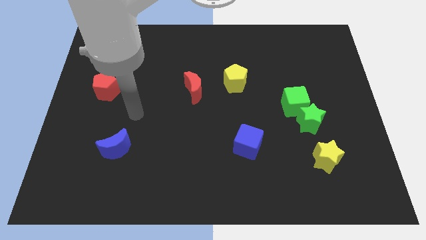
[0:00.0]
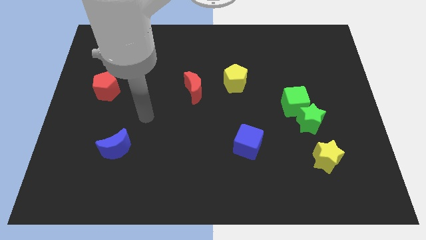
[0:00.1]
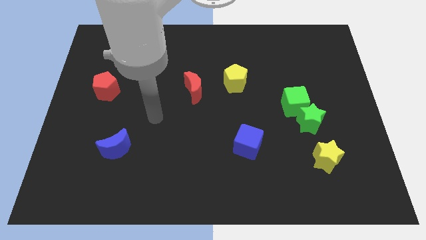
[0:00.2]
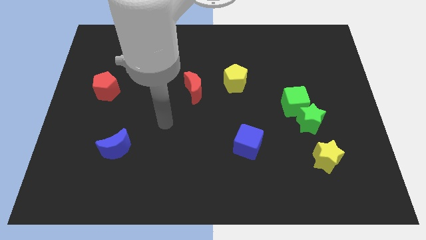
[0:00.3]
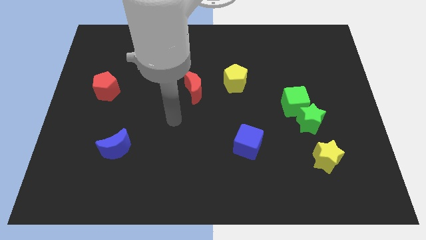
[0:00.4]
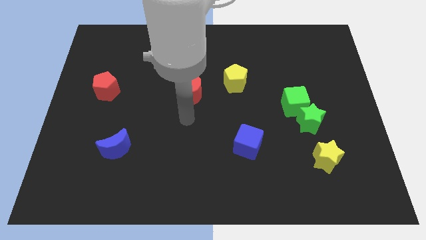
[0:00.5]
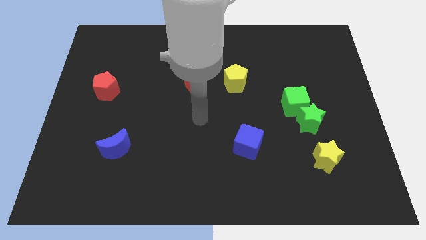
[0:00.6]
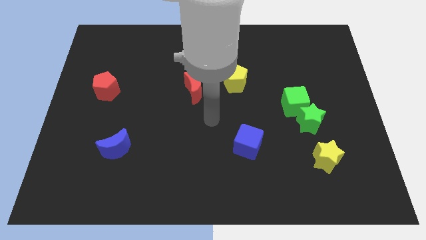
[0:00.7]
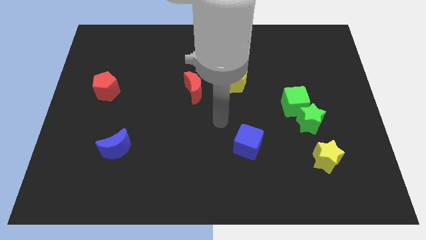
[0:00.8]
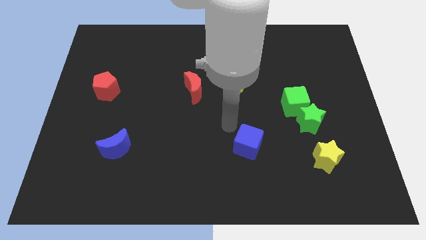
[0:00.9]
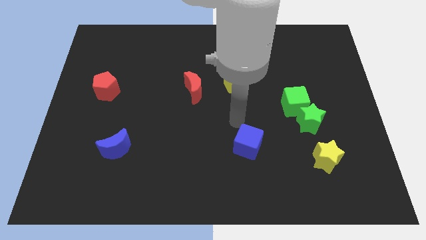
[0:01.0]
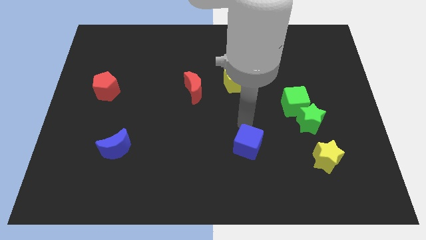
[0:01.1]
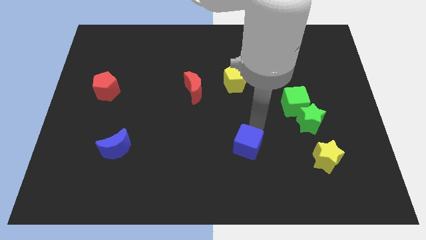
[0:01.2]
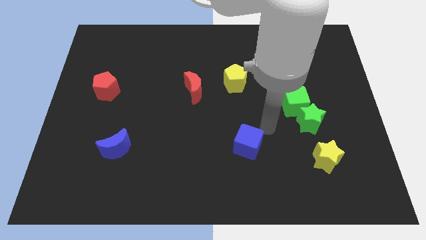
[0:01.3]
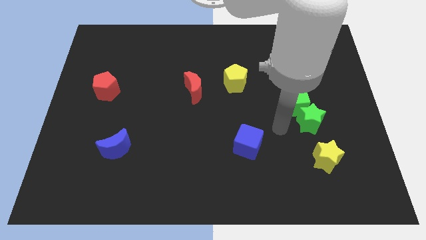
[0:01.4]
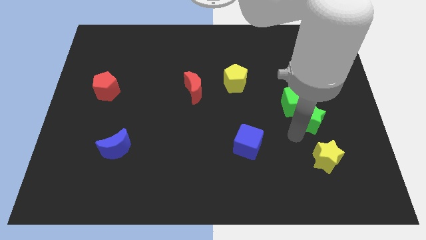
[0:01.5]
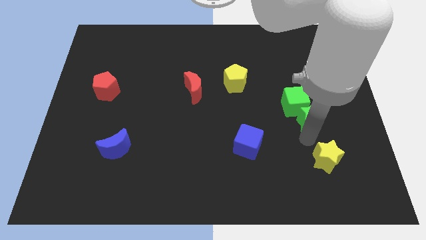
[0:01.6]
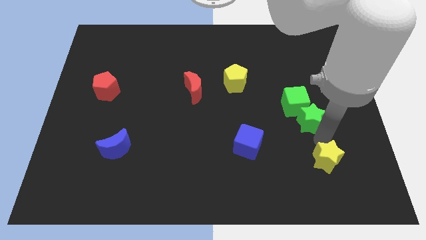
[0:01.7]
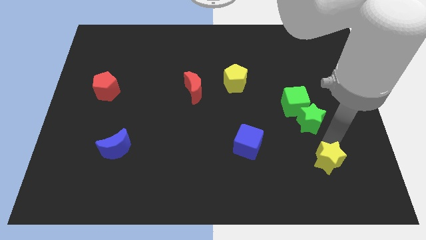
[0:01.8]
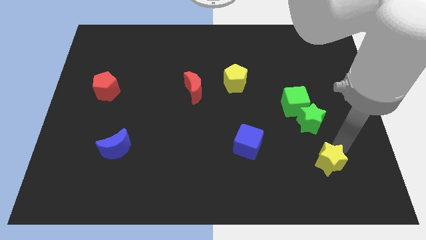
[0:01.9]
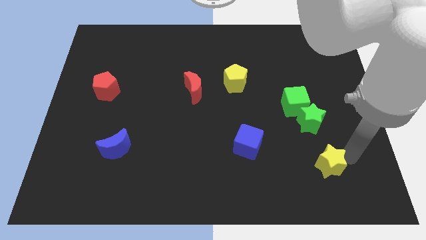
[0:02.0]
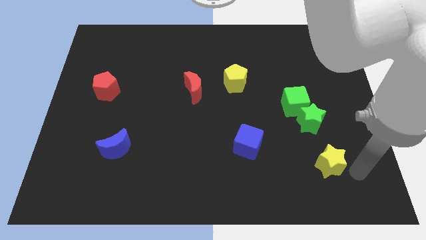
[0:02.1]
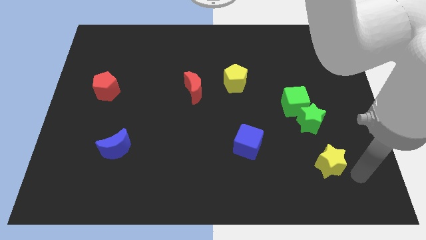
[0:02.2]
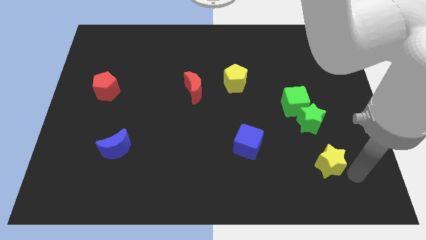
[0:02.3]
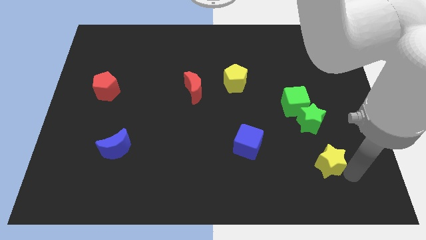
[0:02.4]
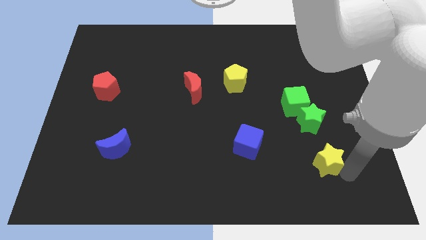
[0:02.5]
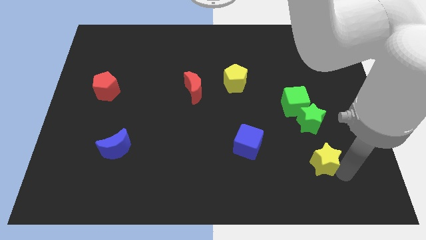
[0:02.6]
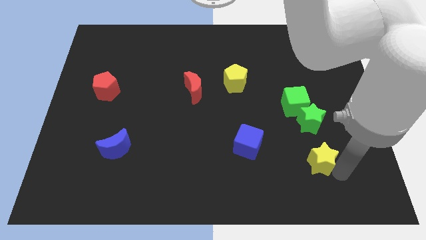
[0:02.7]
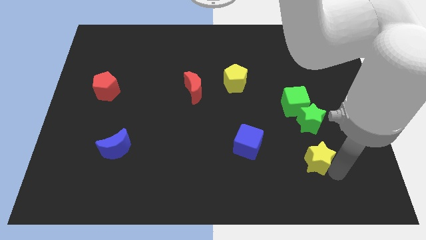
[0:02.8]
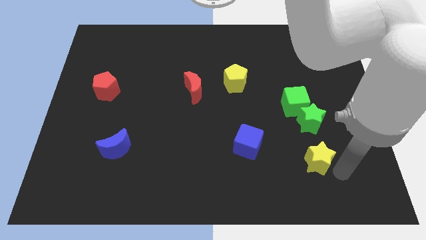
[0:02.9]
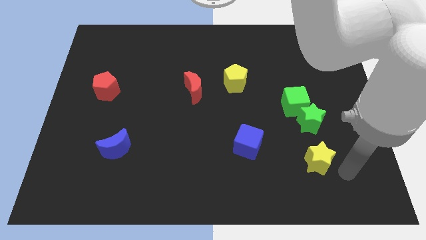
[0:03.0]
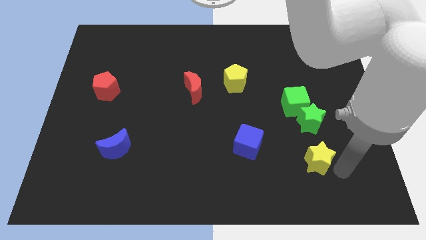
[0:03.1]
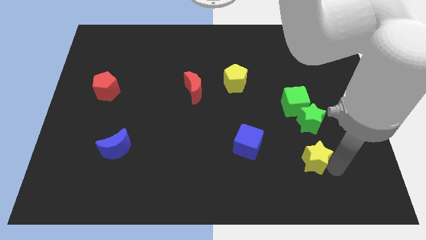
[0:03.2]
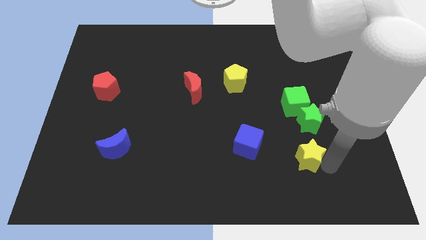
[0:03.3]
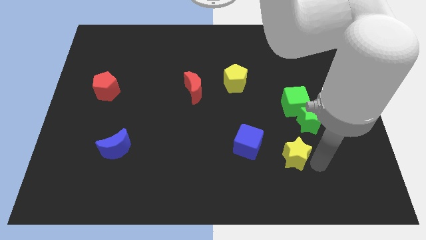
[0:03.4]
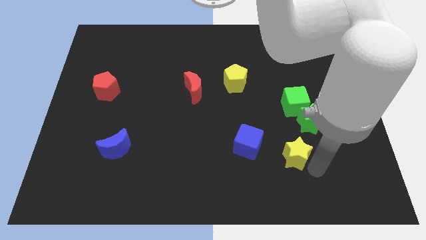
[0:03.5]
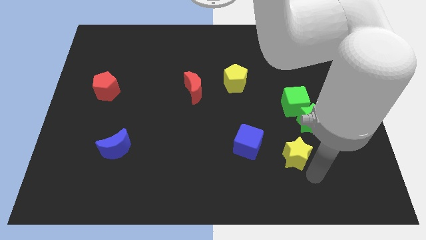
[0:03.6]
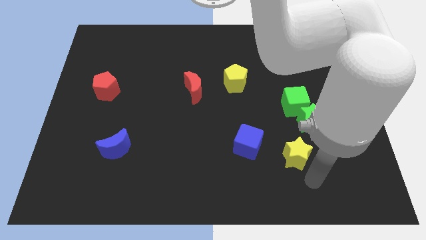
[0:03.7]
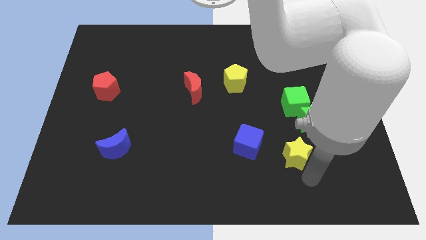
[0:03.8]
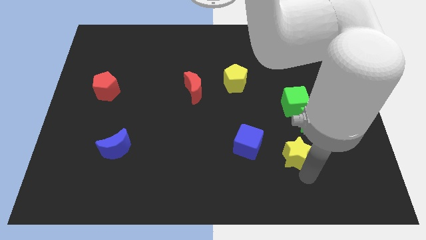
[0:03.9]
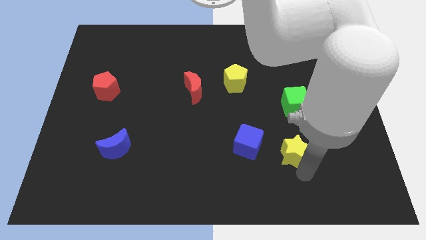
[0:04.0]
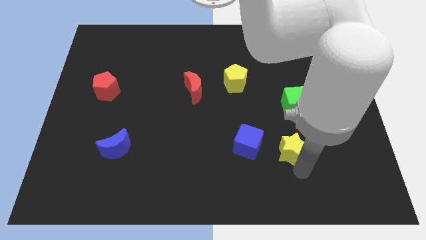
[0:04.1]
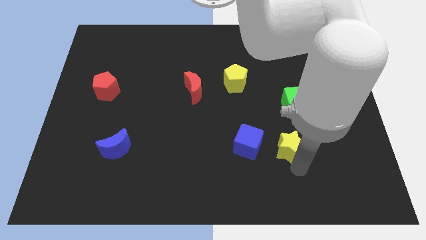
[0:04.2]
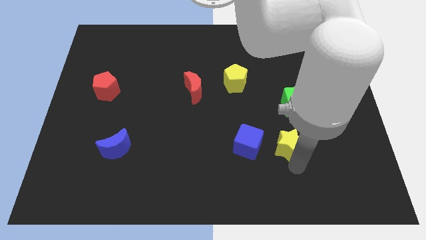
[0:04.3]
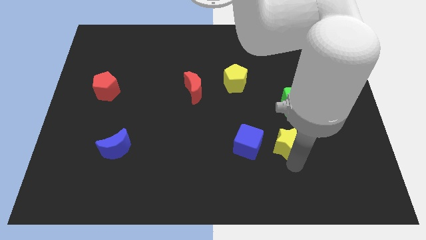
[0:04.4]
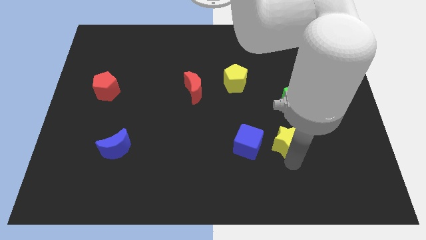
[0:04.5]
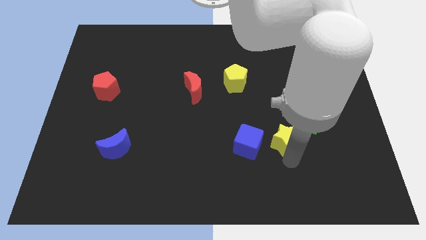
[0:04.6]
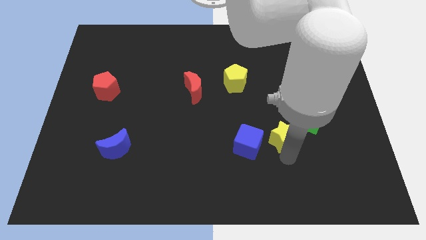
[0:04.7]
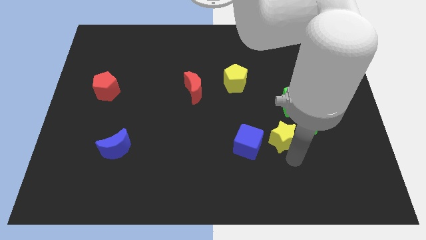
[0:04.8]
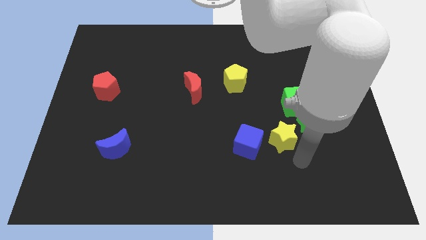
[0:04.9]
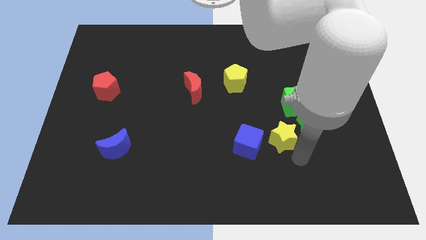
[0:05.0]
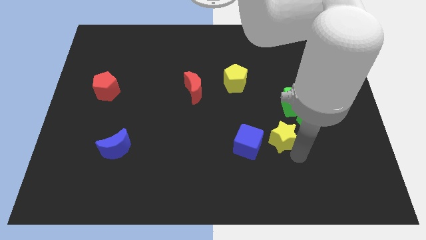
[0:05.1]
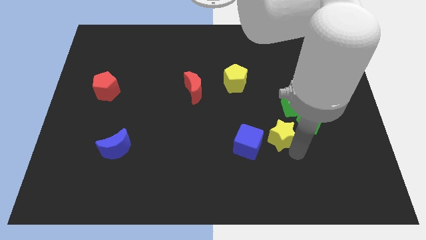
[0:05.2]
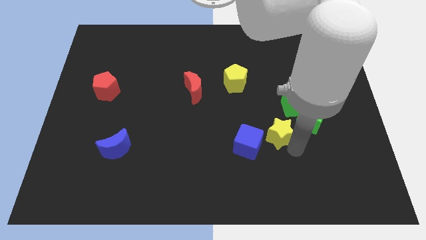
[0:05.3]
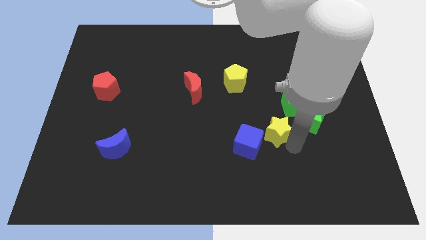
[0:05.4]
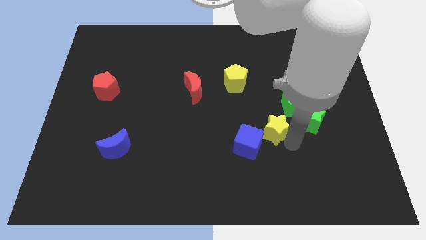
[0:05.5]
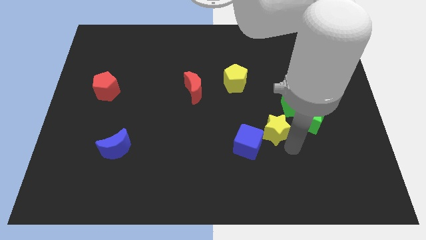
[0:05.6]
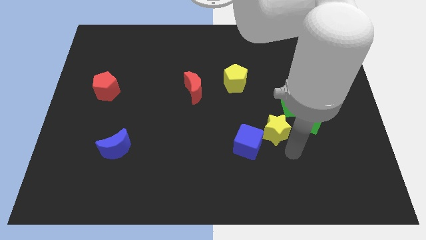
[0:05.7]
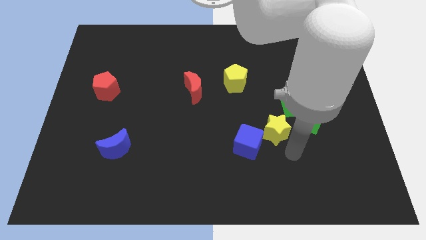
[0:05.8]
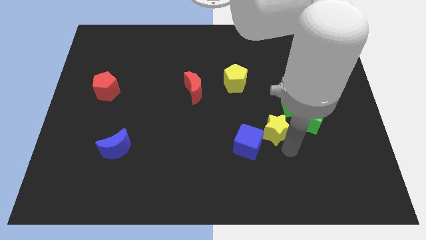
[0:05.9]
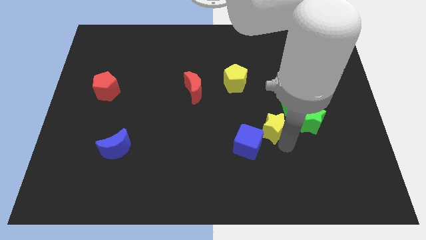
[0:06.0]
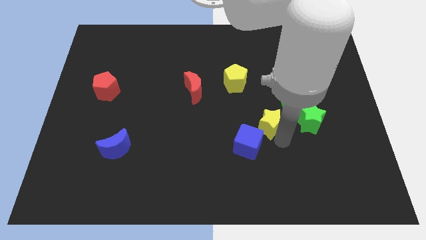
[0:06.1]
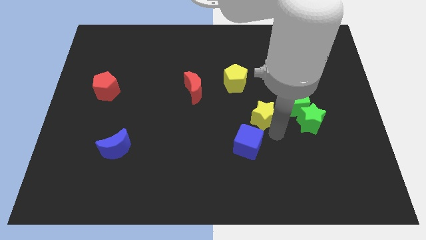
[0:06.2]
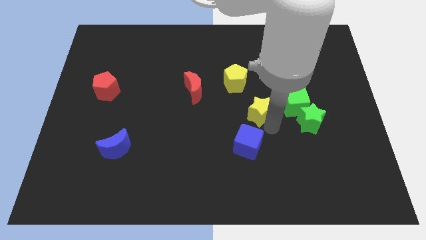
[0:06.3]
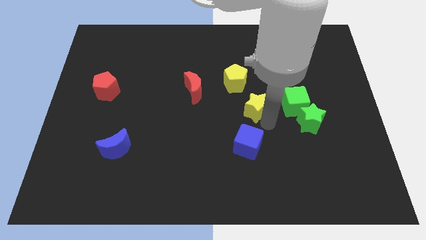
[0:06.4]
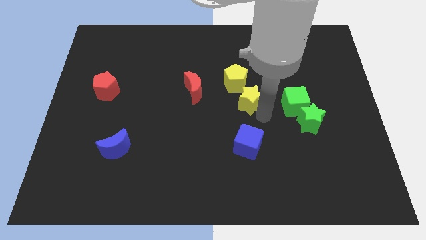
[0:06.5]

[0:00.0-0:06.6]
push the yellow star upwards and to the left

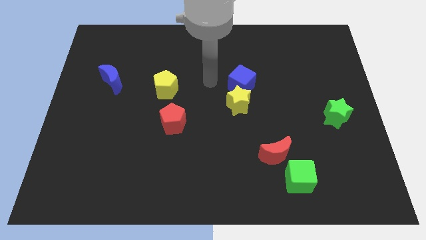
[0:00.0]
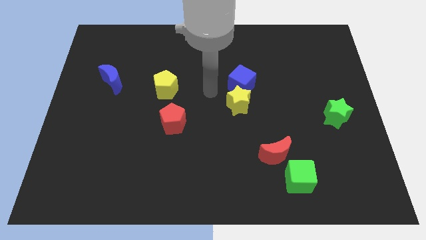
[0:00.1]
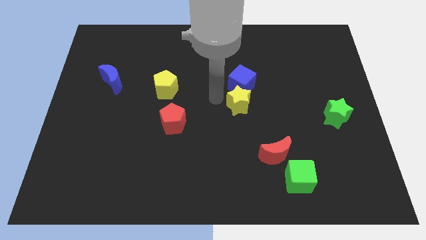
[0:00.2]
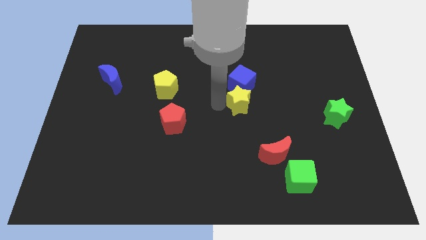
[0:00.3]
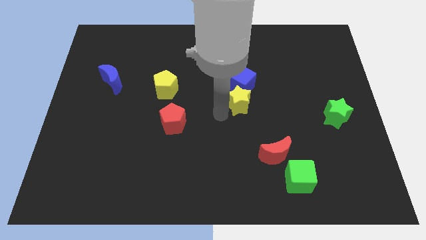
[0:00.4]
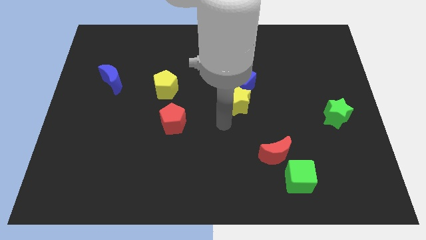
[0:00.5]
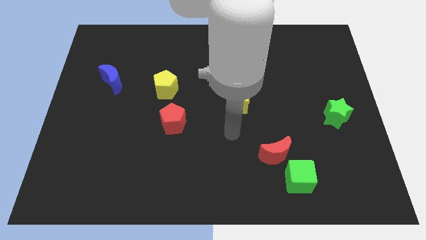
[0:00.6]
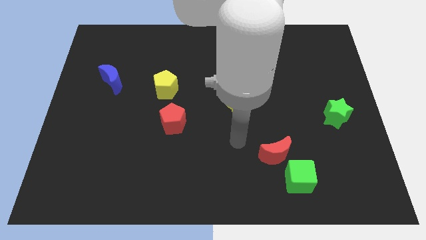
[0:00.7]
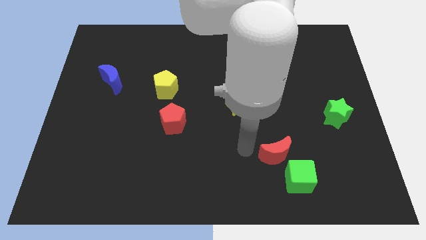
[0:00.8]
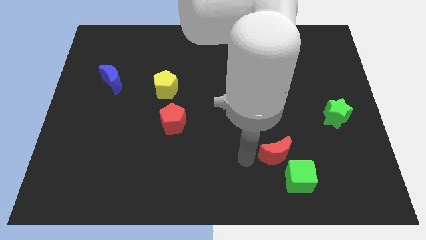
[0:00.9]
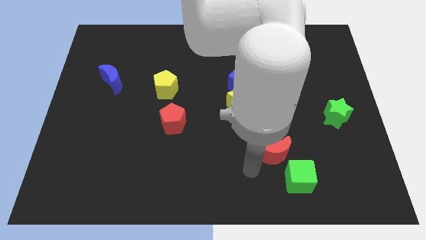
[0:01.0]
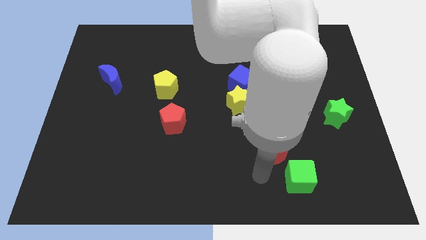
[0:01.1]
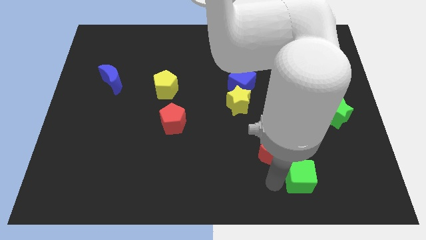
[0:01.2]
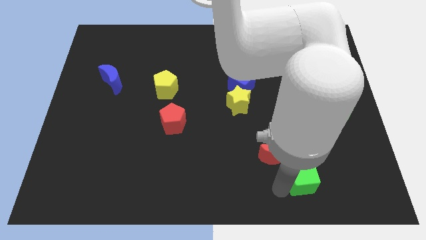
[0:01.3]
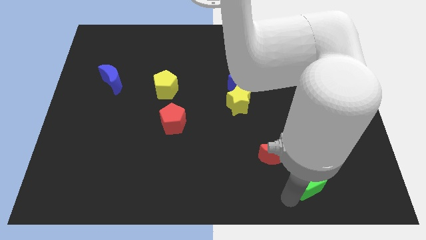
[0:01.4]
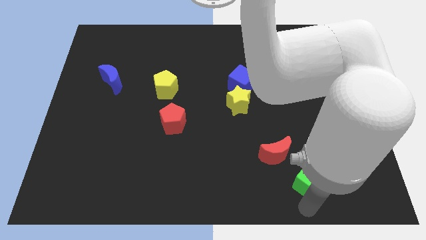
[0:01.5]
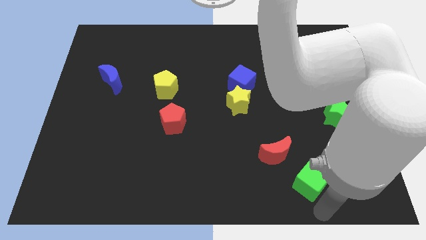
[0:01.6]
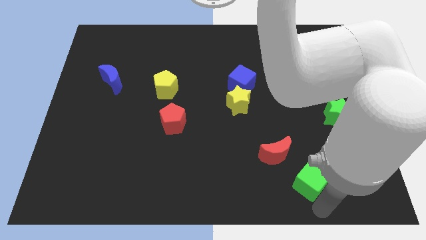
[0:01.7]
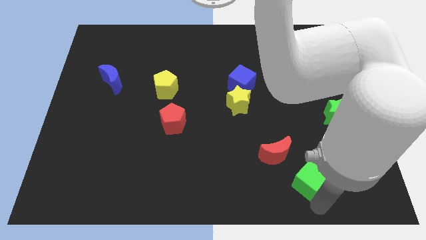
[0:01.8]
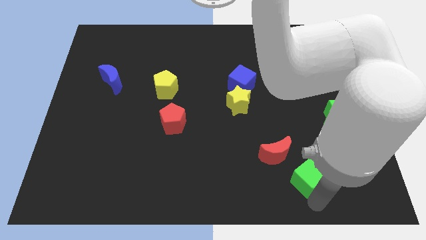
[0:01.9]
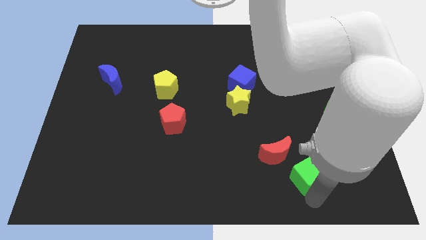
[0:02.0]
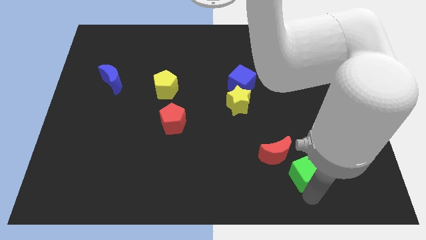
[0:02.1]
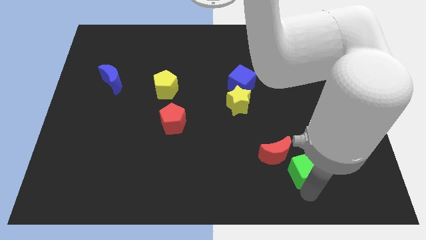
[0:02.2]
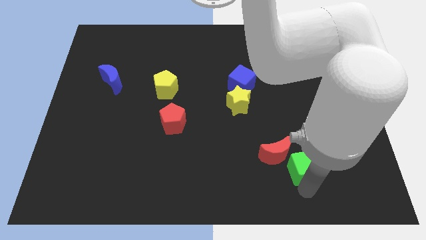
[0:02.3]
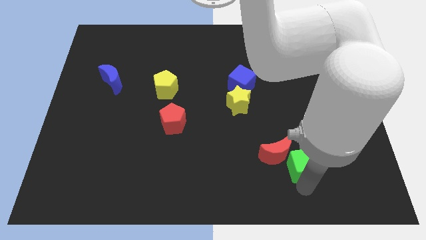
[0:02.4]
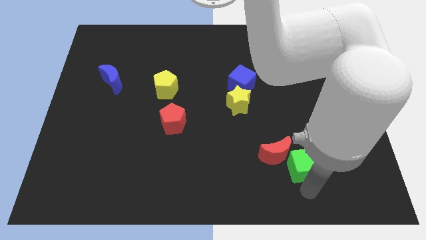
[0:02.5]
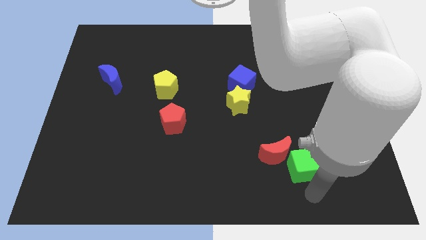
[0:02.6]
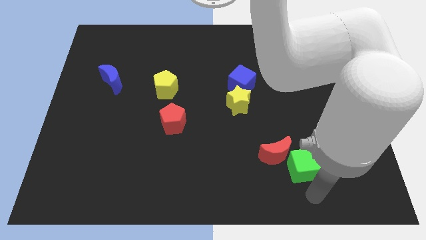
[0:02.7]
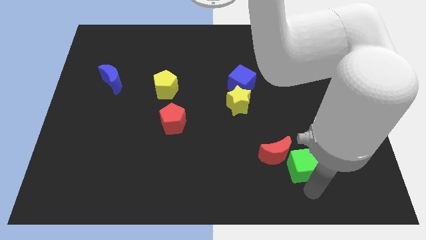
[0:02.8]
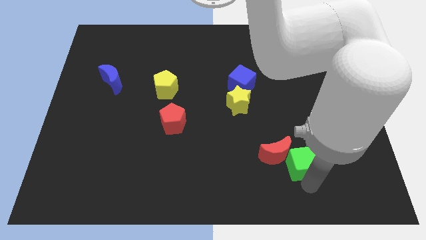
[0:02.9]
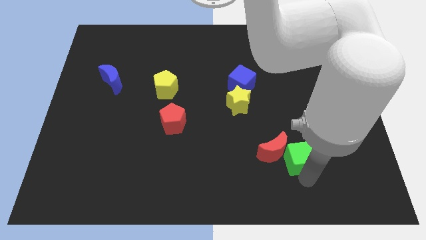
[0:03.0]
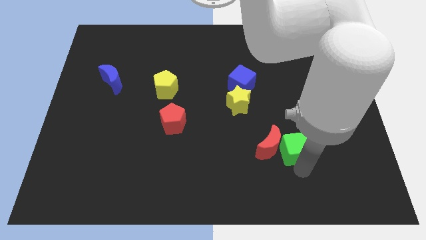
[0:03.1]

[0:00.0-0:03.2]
slightly push the green cube upwards
